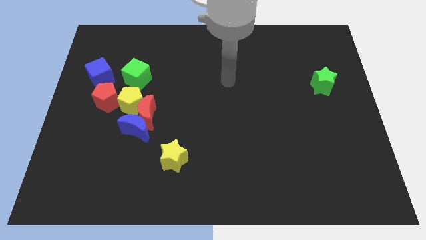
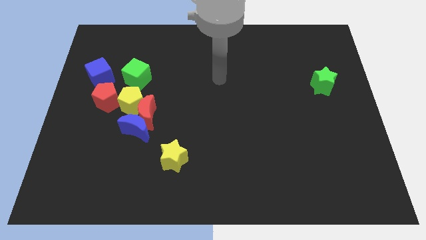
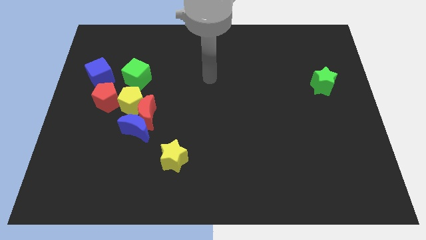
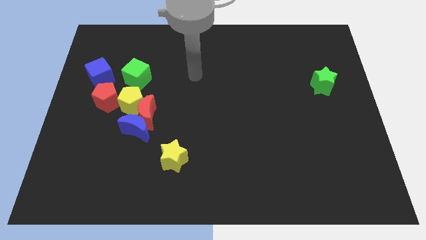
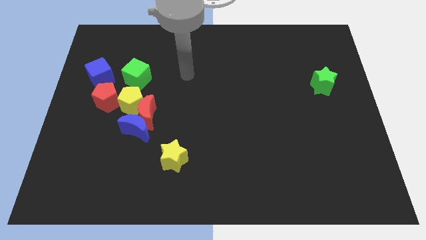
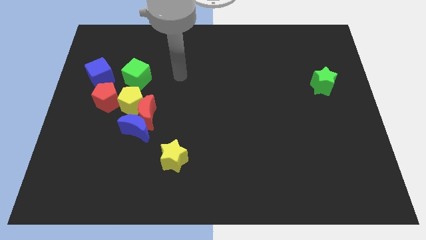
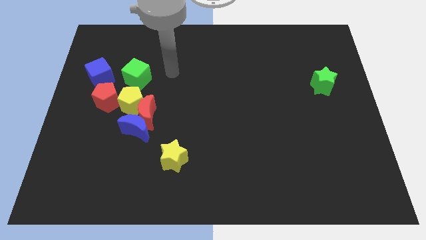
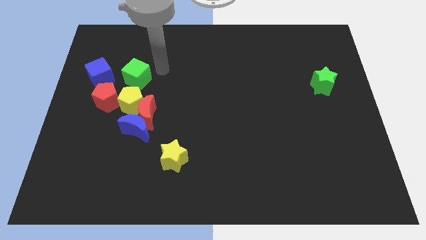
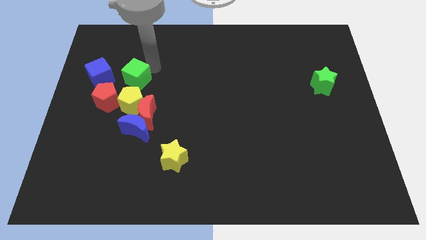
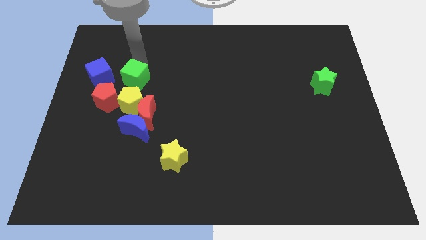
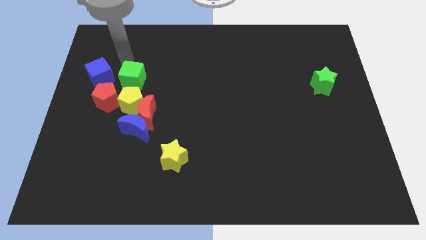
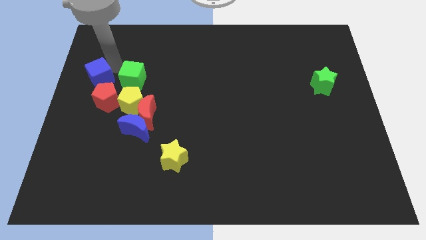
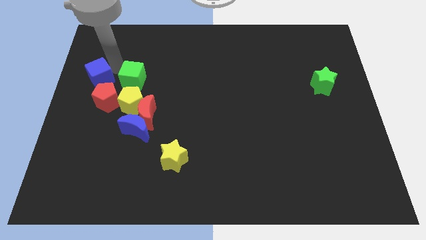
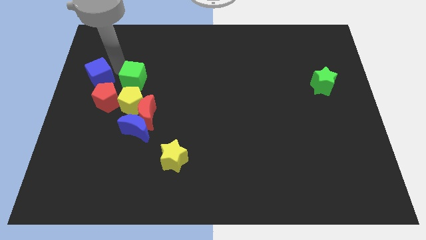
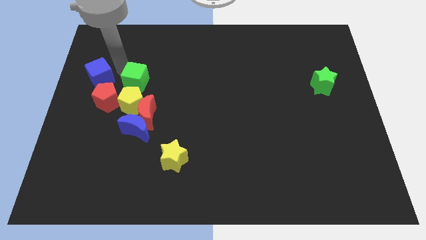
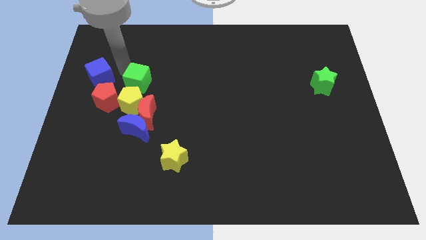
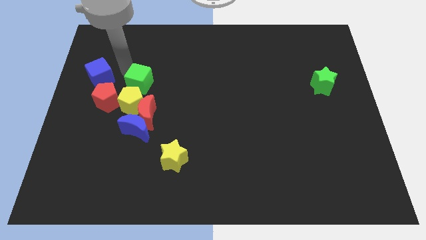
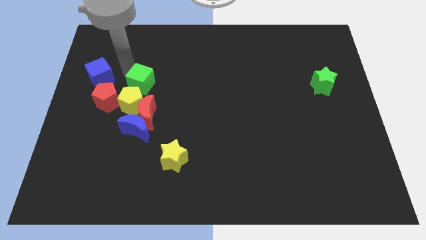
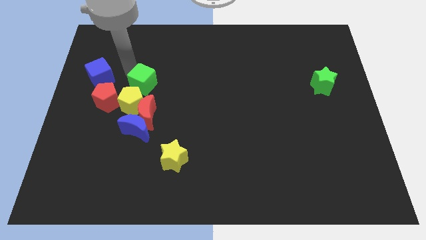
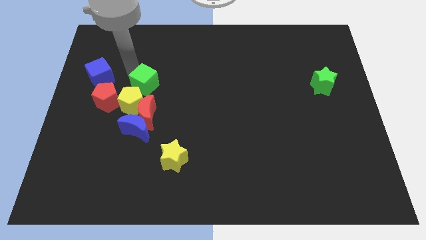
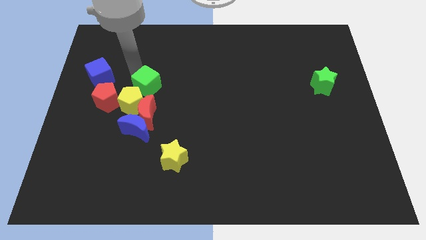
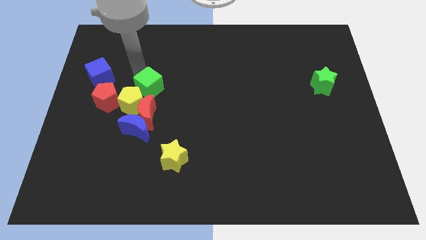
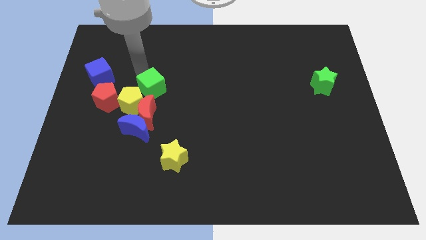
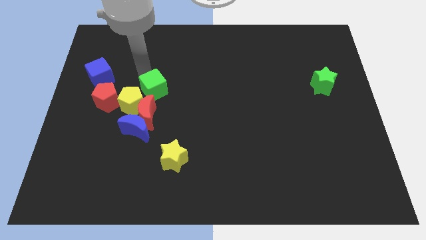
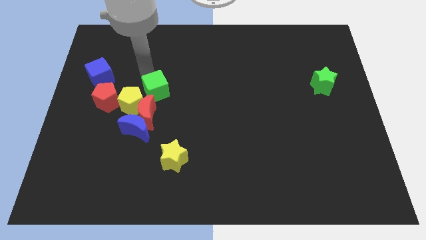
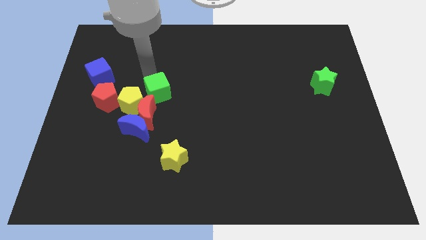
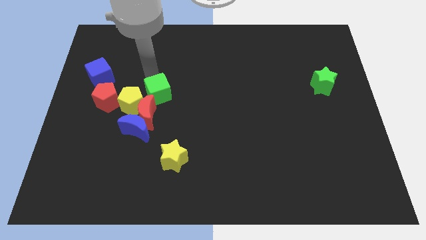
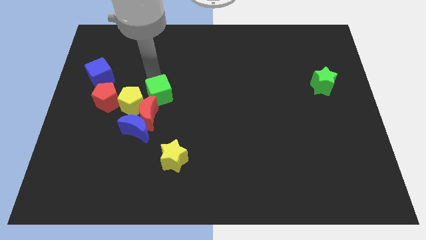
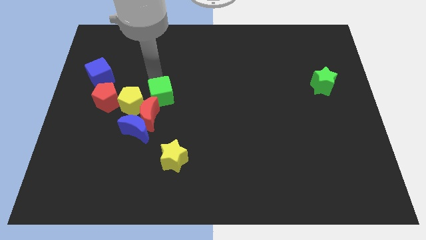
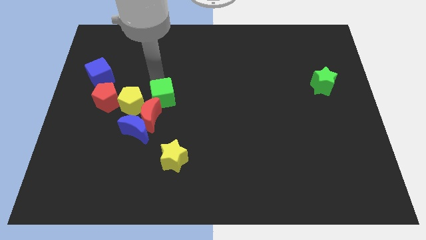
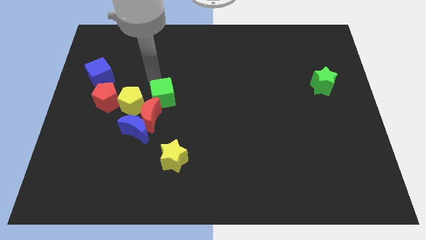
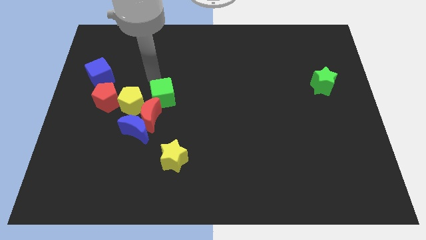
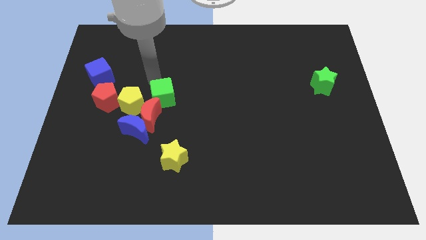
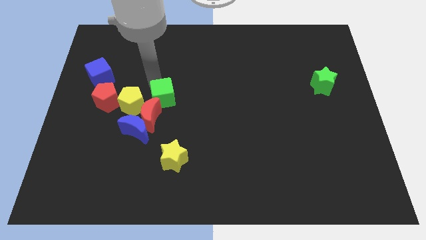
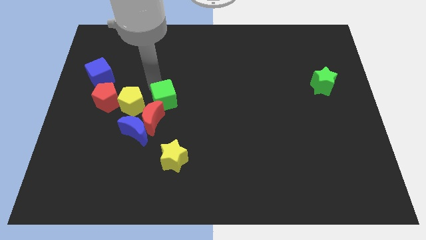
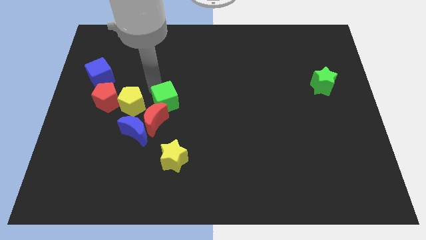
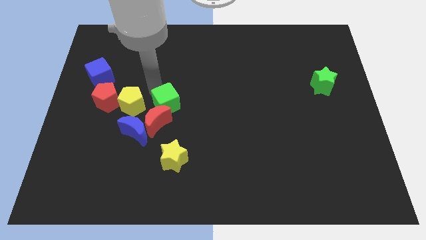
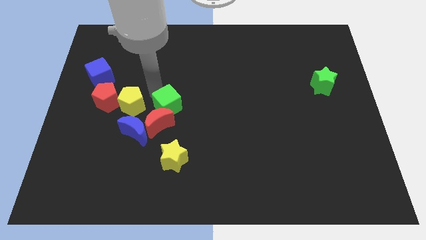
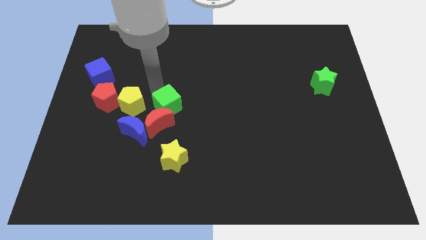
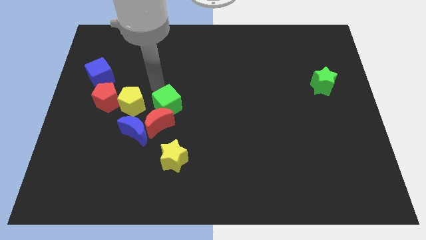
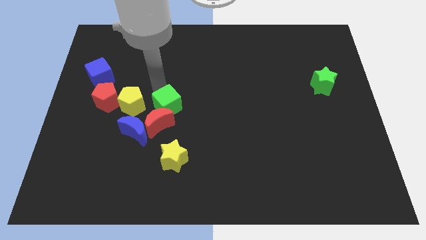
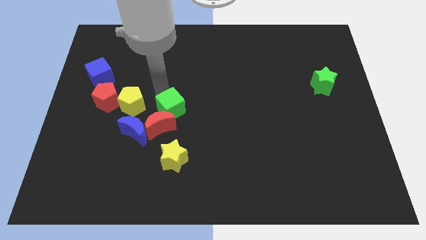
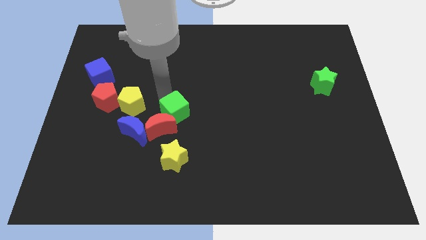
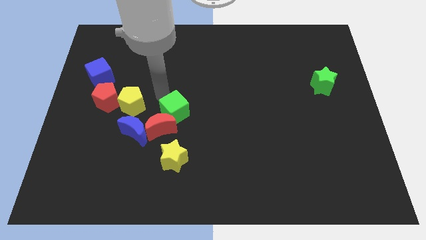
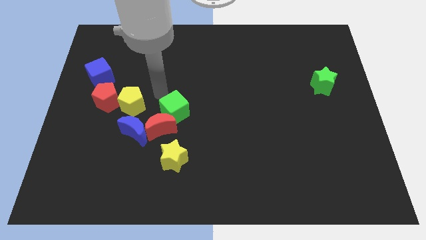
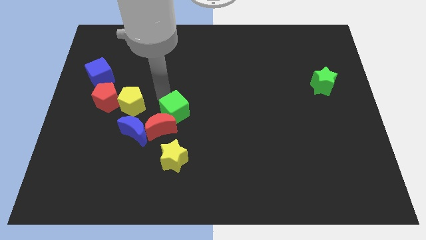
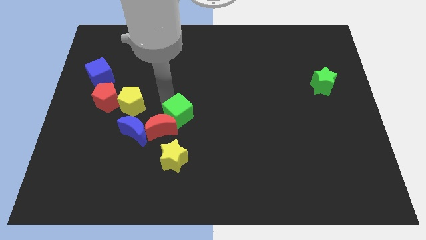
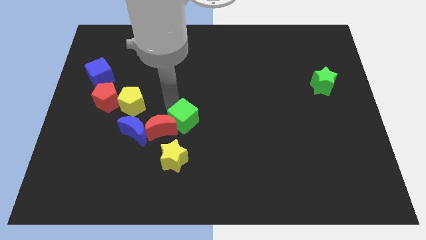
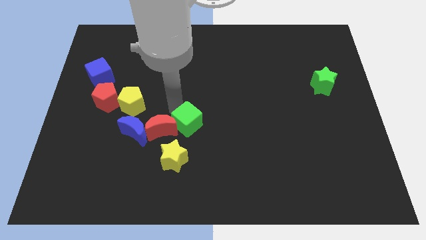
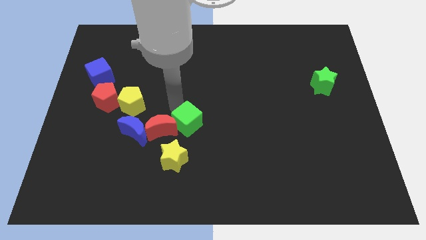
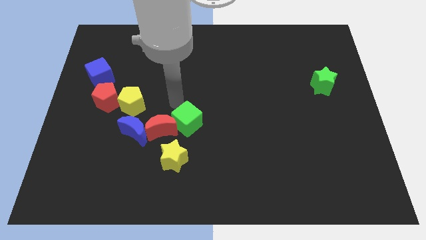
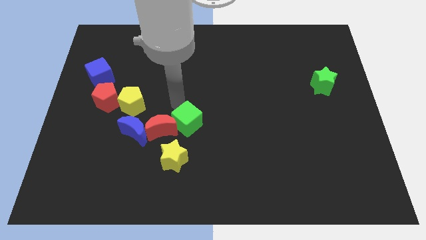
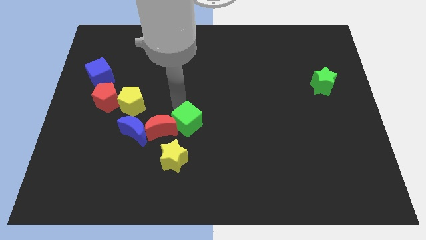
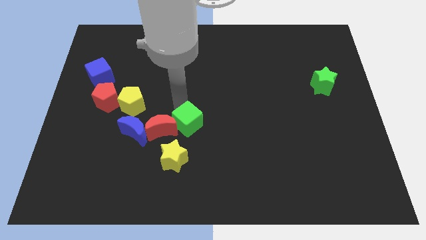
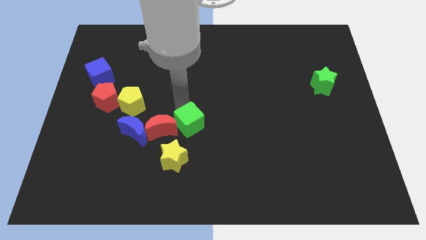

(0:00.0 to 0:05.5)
push the green cube downwards and to the right

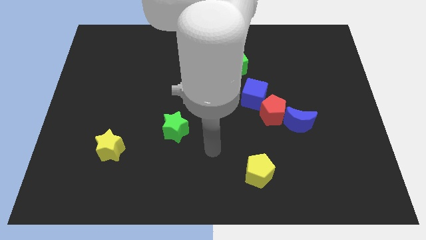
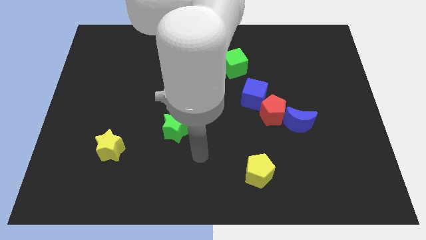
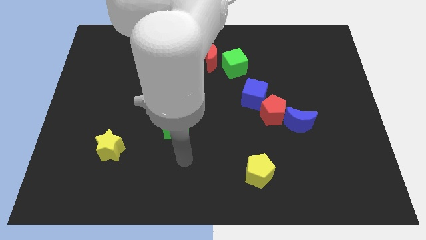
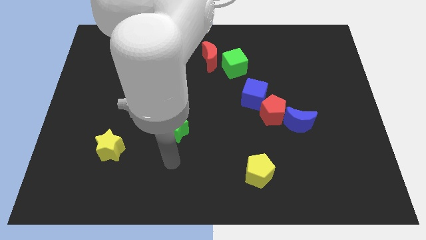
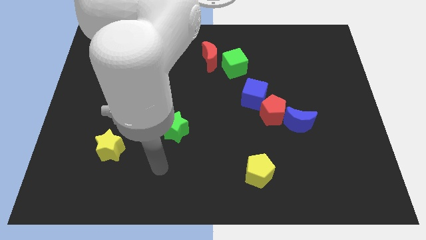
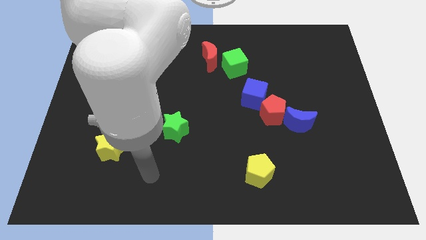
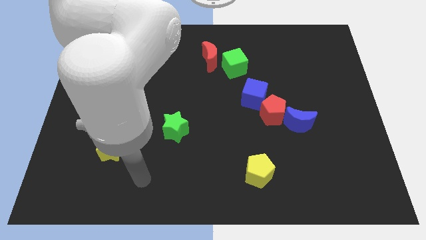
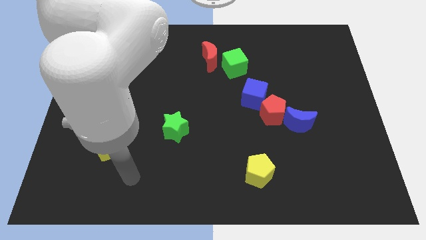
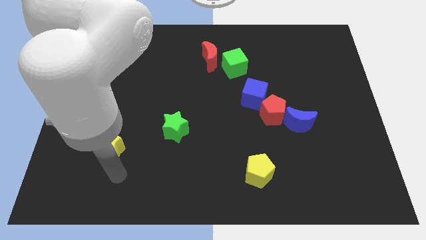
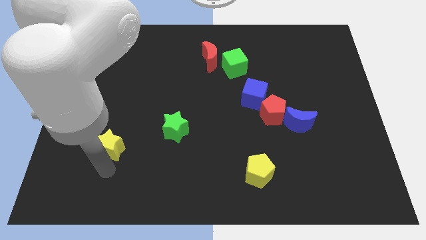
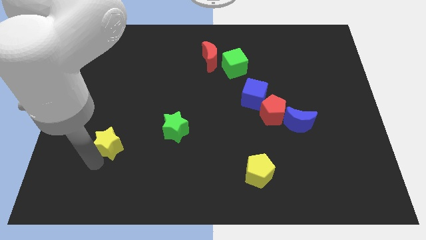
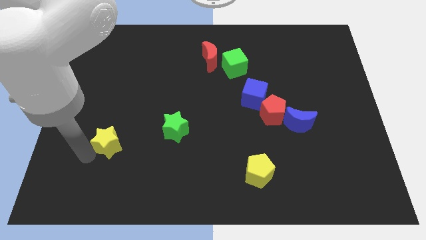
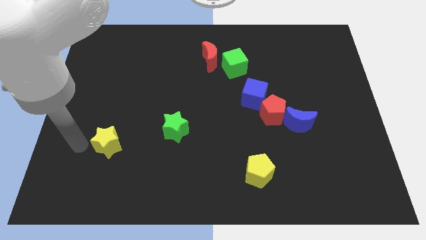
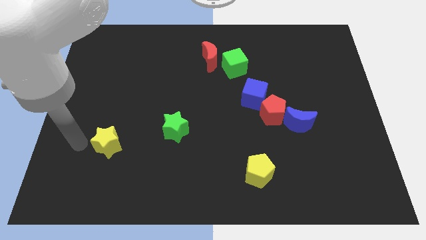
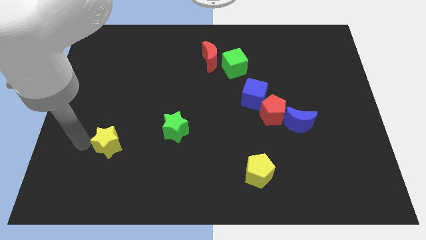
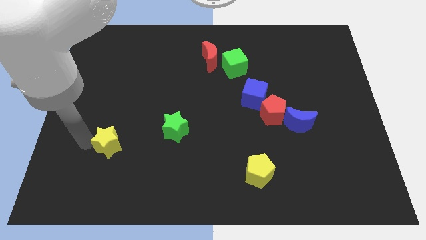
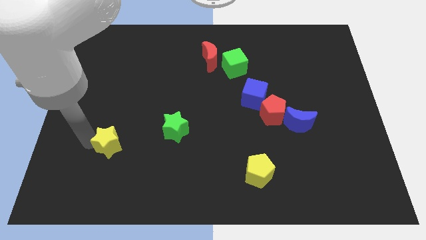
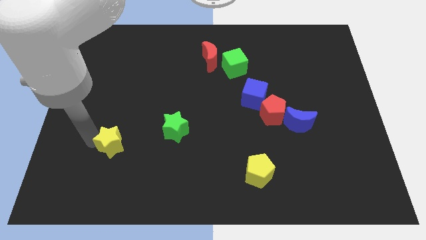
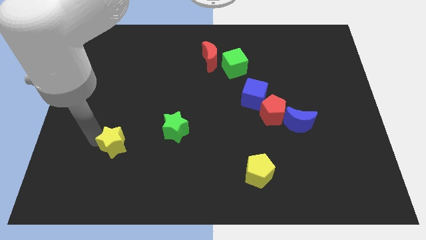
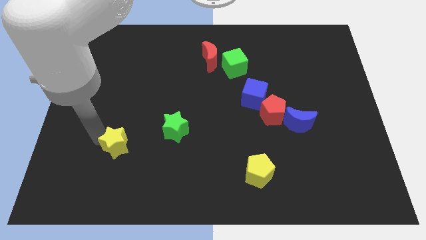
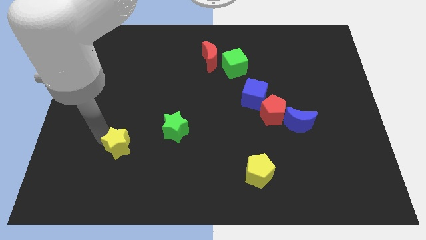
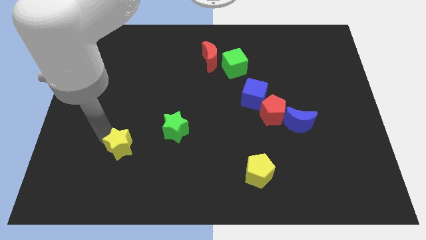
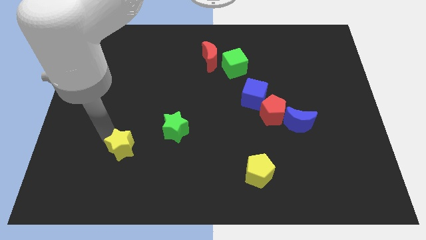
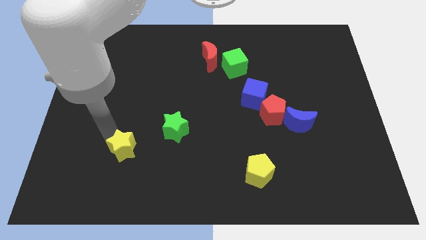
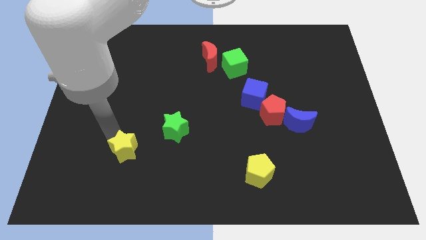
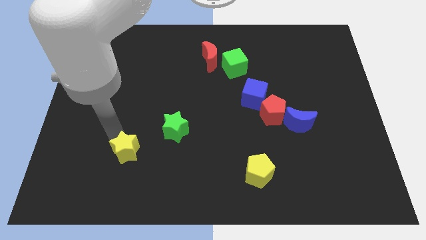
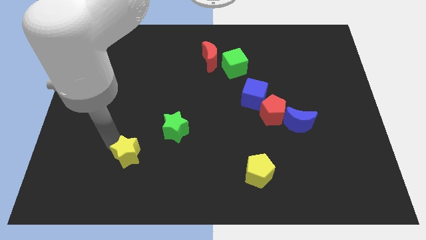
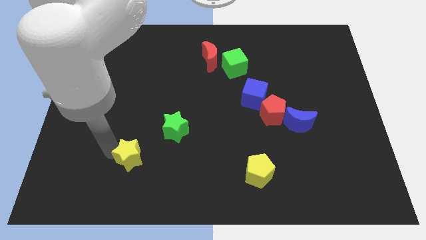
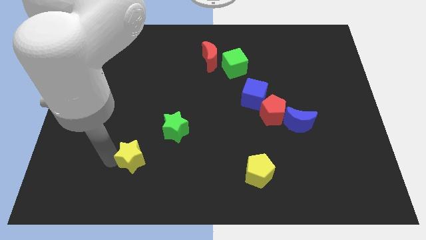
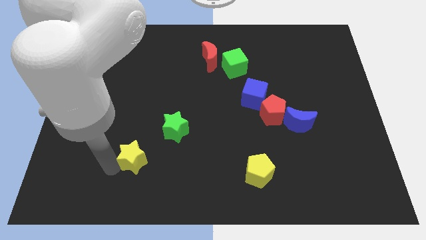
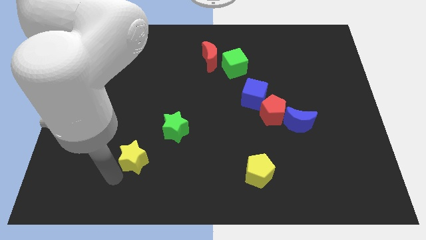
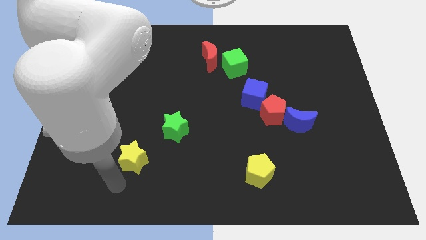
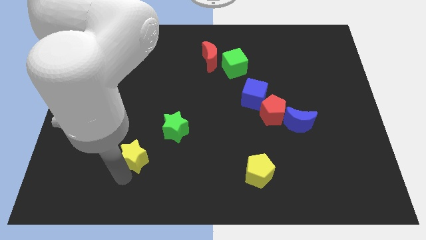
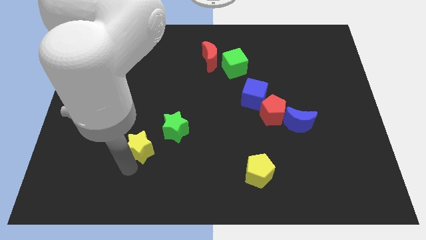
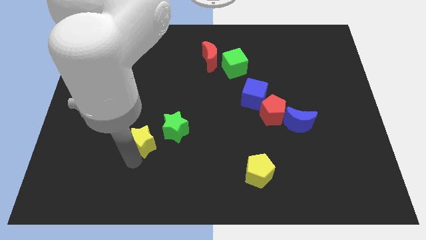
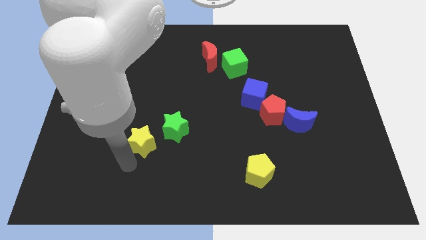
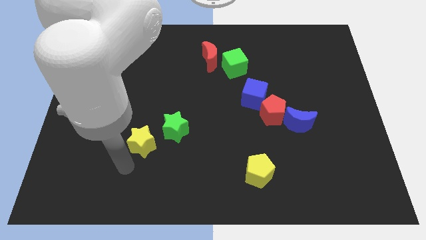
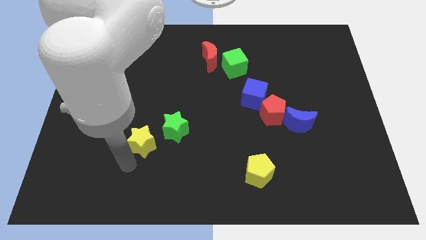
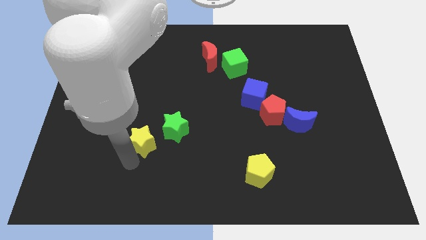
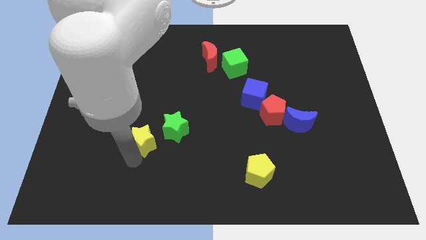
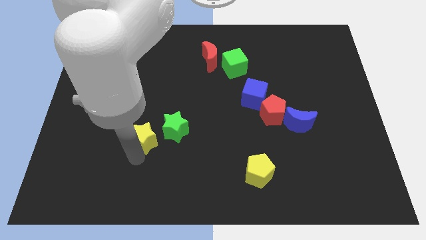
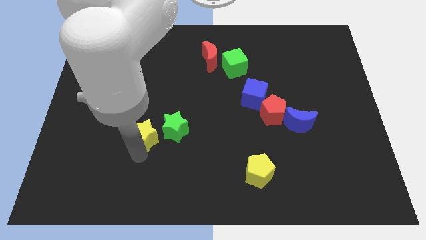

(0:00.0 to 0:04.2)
move the yellow star a little bit upwards and right
